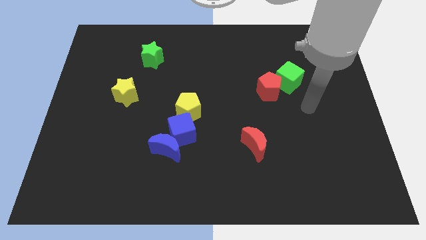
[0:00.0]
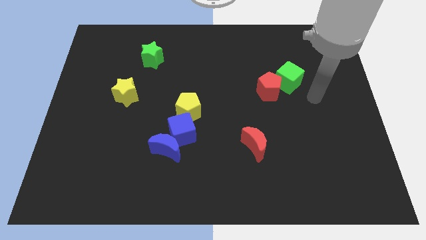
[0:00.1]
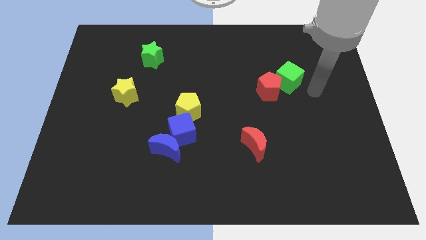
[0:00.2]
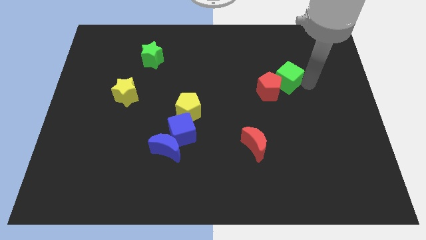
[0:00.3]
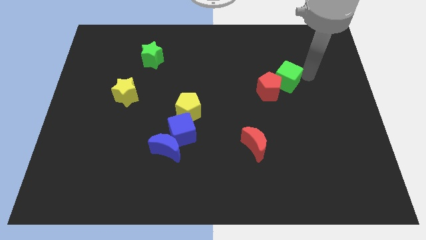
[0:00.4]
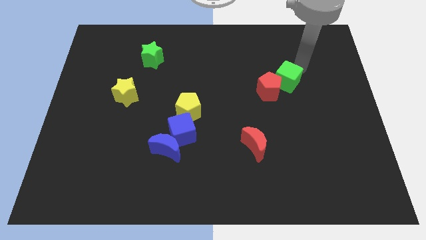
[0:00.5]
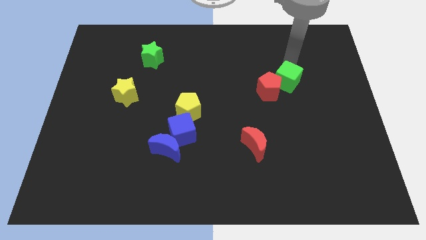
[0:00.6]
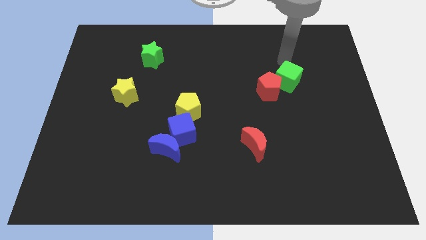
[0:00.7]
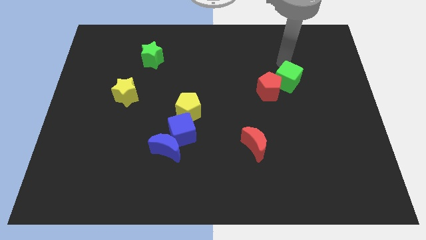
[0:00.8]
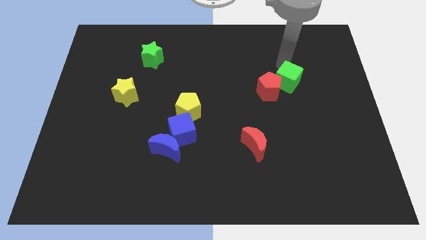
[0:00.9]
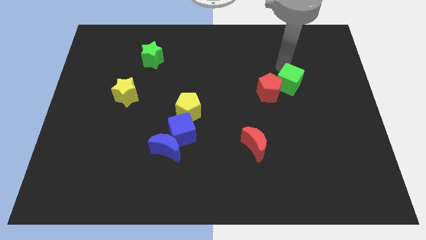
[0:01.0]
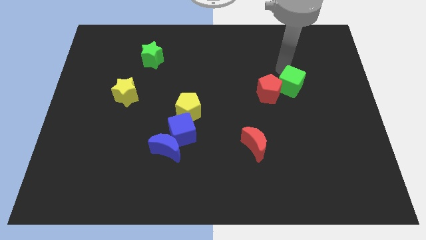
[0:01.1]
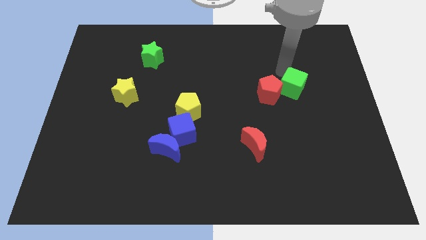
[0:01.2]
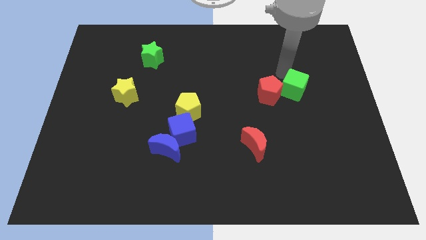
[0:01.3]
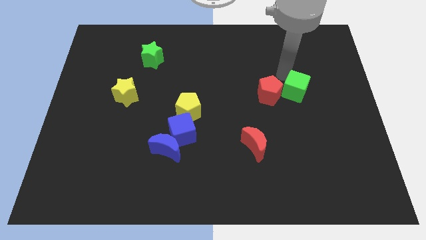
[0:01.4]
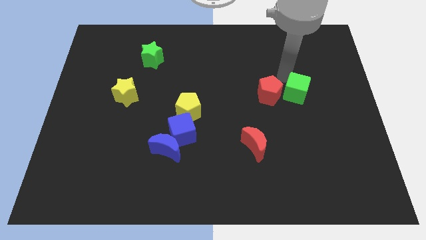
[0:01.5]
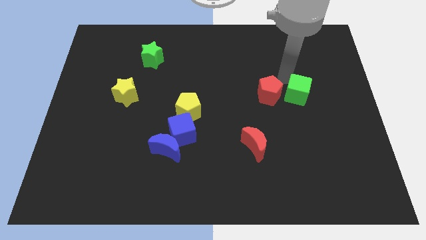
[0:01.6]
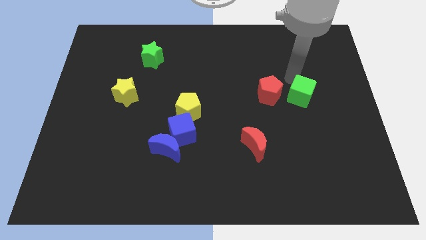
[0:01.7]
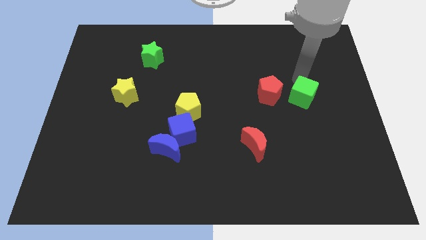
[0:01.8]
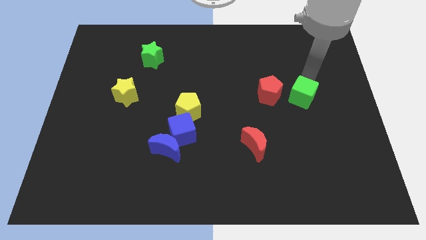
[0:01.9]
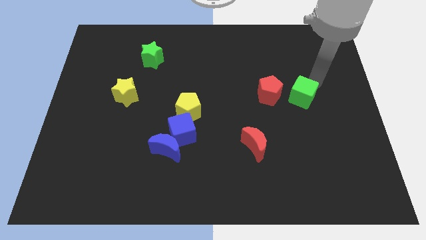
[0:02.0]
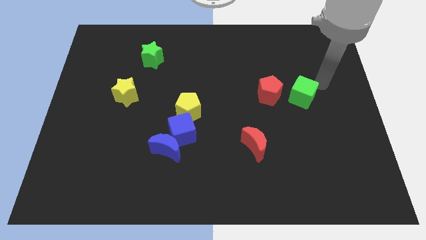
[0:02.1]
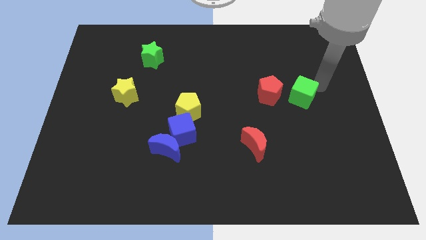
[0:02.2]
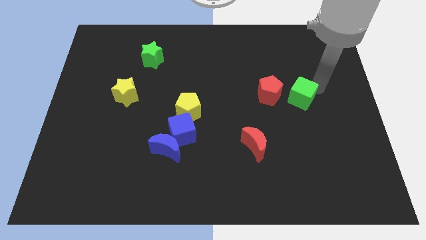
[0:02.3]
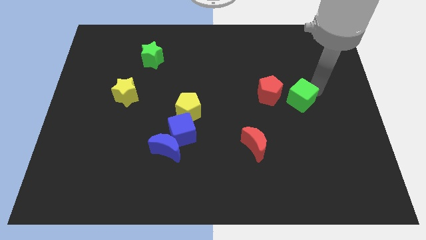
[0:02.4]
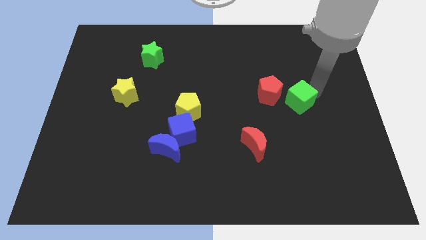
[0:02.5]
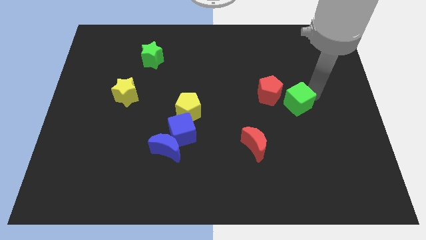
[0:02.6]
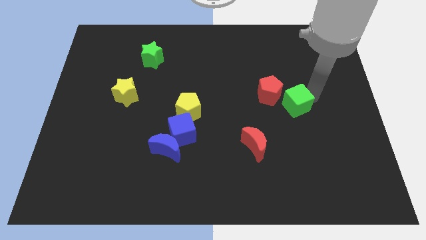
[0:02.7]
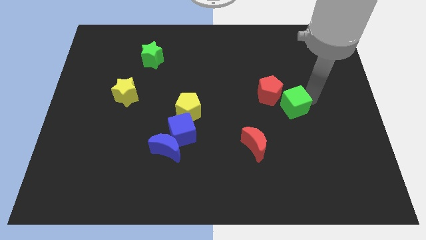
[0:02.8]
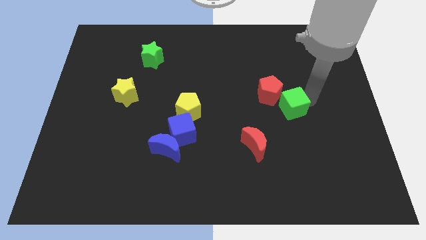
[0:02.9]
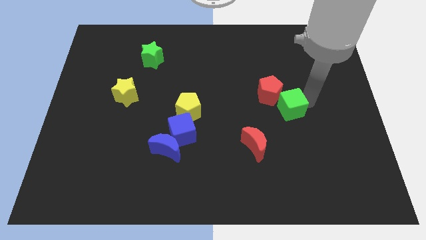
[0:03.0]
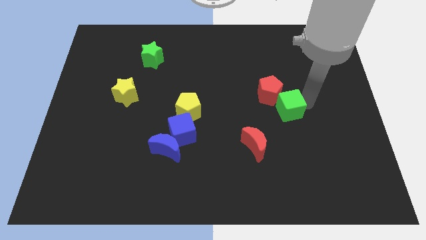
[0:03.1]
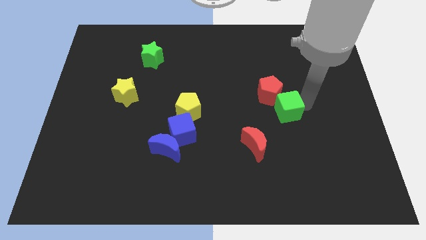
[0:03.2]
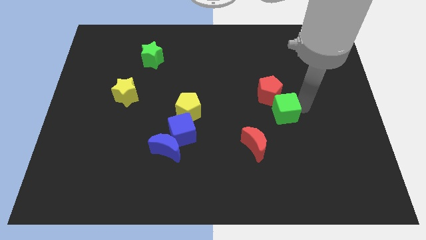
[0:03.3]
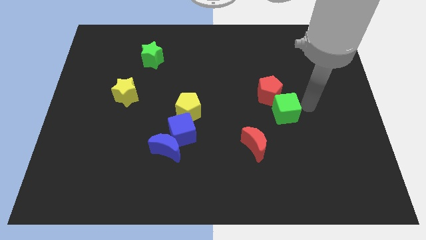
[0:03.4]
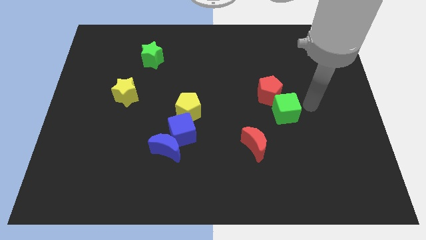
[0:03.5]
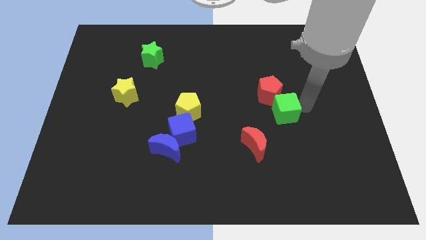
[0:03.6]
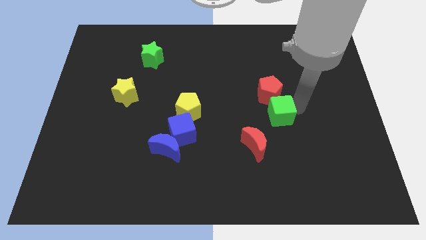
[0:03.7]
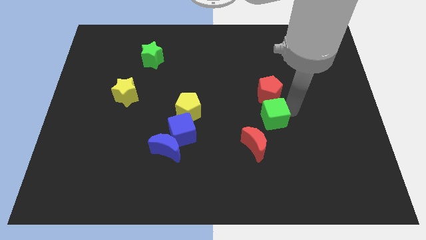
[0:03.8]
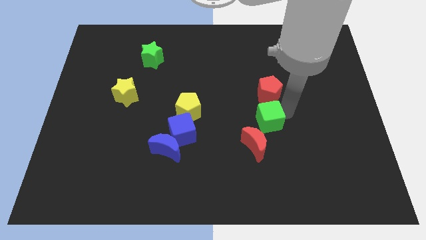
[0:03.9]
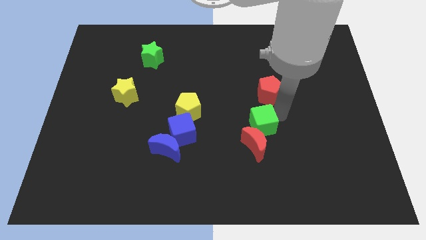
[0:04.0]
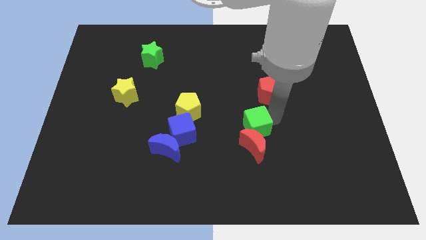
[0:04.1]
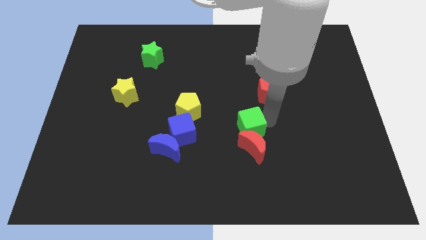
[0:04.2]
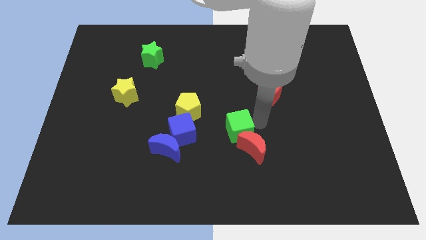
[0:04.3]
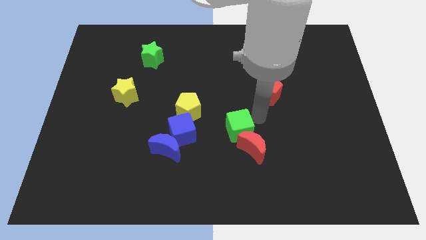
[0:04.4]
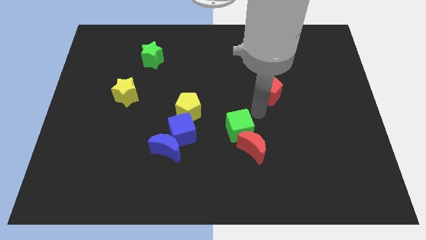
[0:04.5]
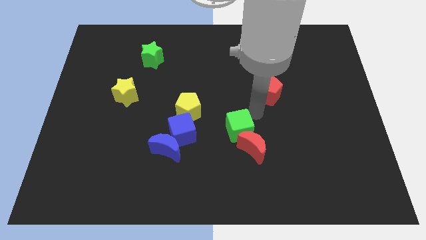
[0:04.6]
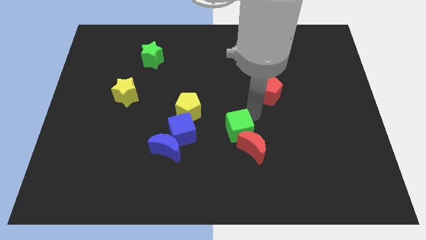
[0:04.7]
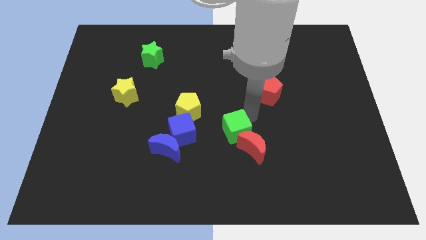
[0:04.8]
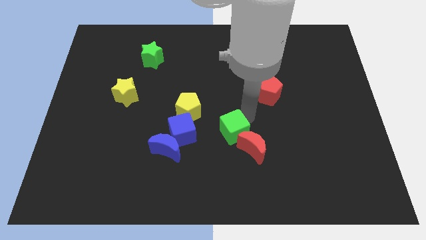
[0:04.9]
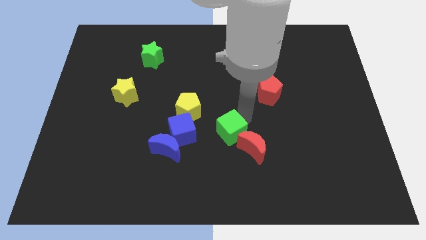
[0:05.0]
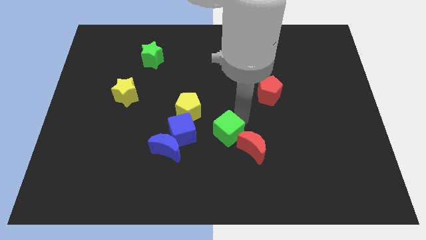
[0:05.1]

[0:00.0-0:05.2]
move the green cube to the right of the blue moon

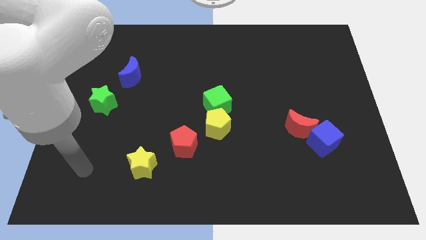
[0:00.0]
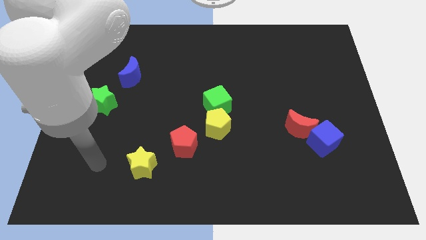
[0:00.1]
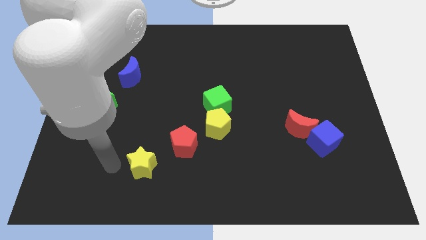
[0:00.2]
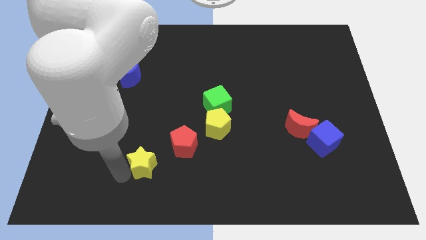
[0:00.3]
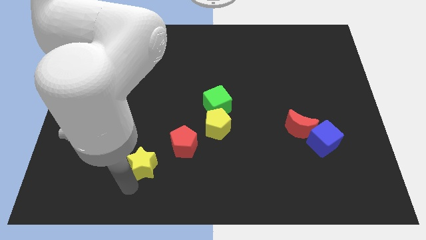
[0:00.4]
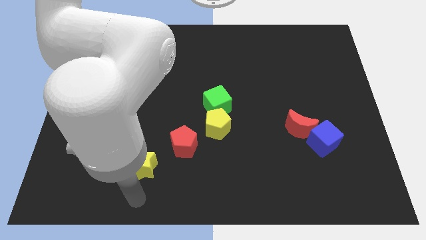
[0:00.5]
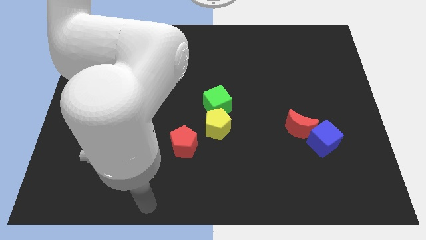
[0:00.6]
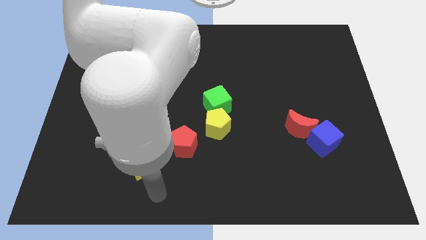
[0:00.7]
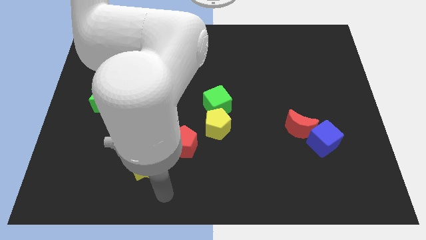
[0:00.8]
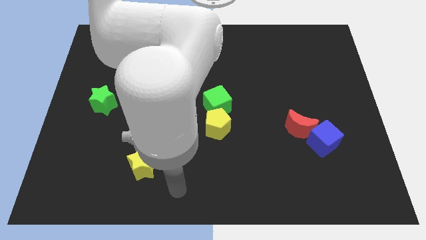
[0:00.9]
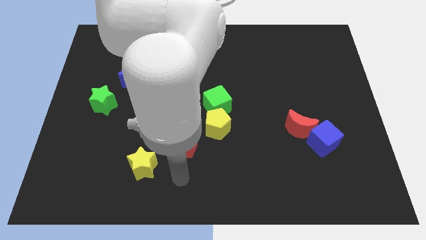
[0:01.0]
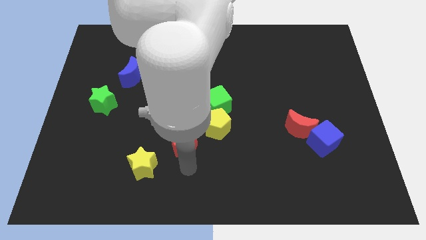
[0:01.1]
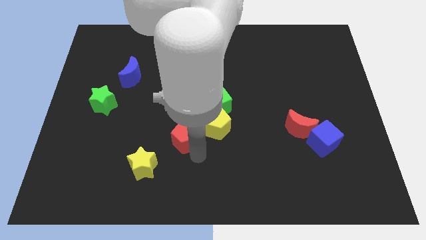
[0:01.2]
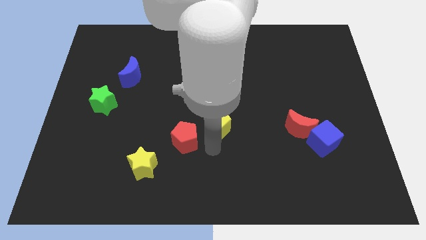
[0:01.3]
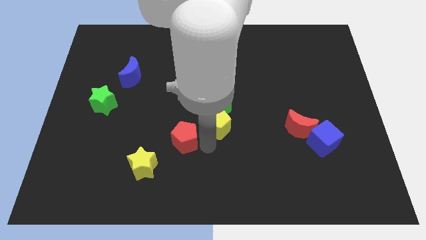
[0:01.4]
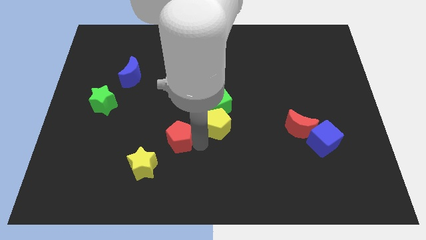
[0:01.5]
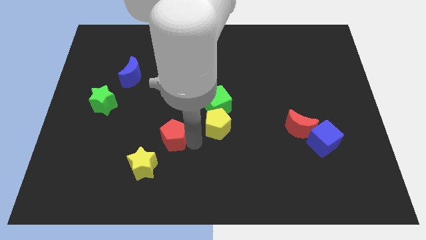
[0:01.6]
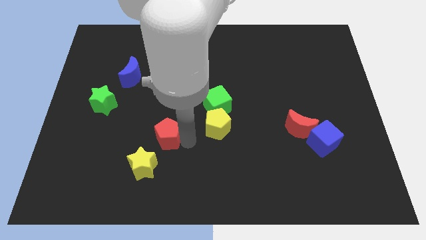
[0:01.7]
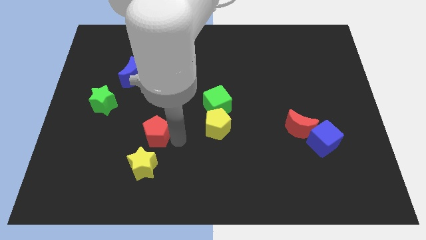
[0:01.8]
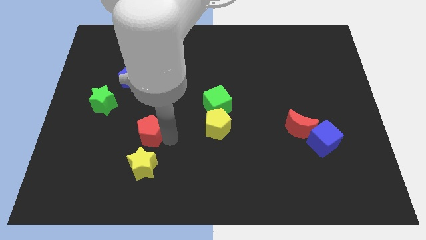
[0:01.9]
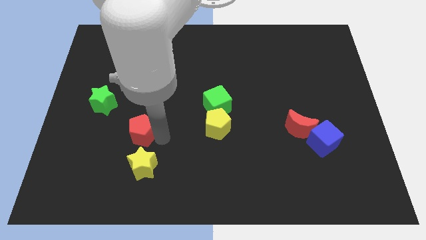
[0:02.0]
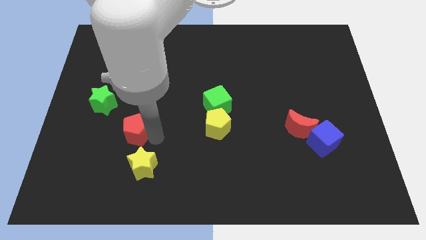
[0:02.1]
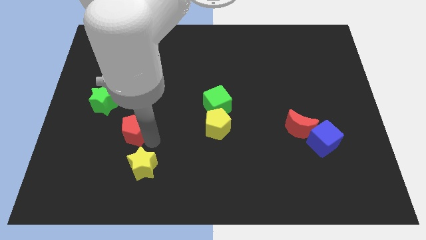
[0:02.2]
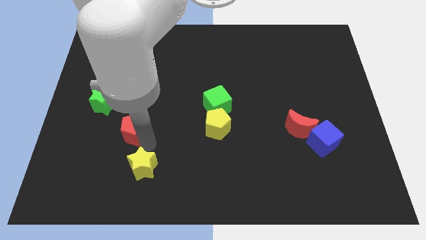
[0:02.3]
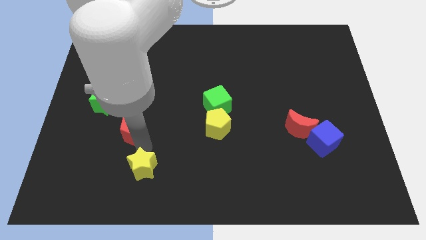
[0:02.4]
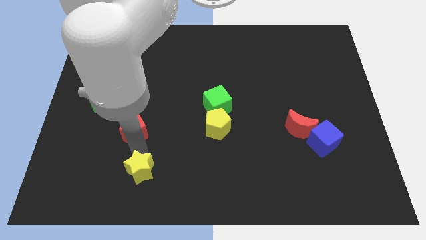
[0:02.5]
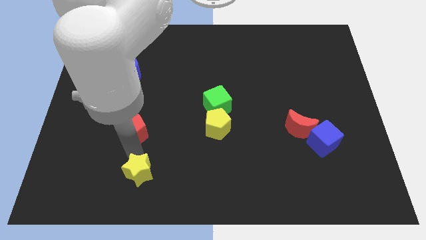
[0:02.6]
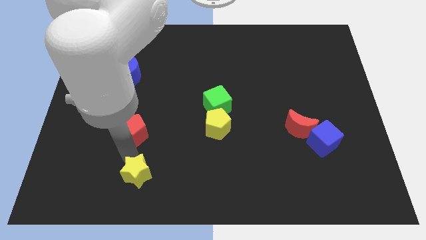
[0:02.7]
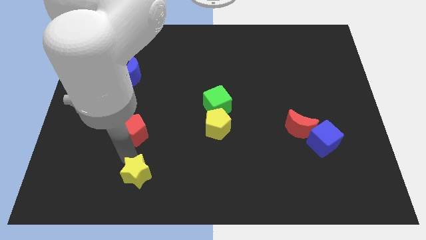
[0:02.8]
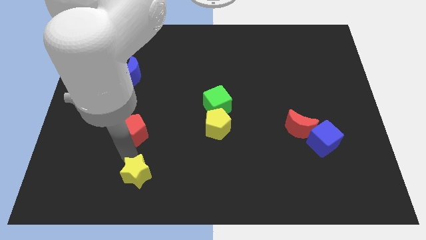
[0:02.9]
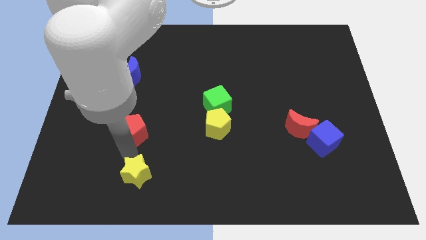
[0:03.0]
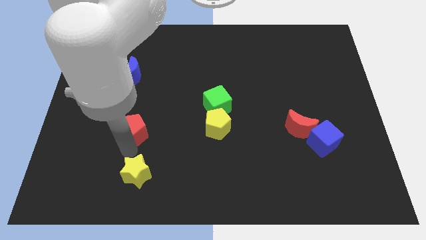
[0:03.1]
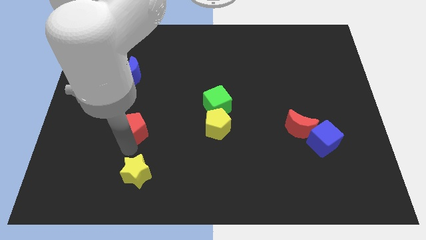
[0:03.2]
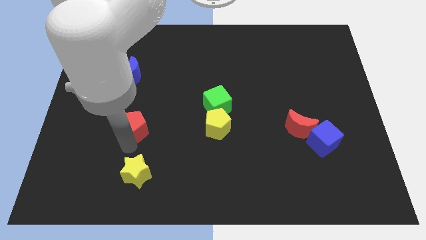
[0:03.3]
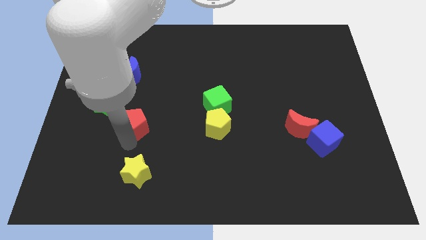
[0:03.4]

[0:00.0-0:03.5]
push the red pentagon below the blue moon
